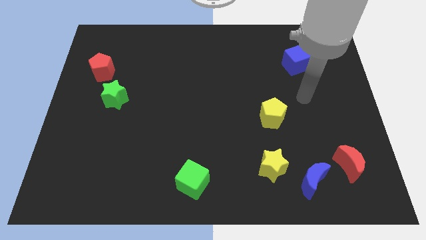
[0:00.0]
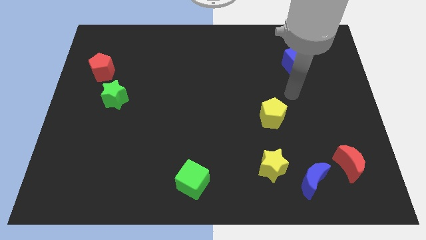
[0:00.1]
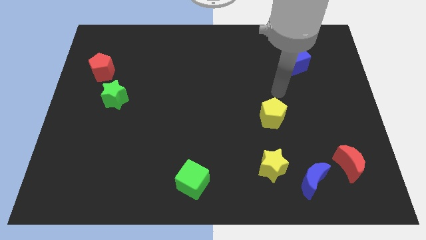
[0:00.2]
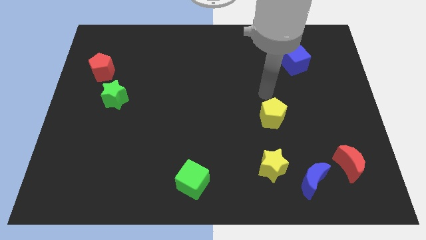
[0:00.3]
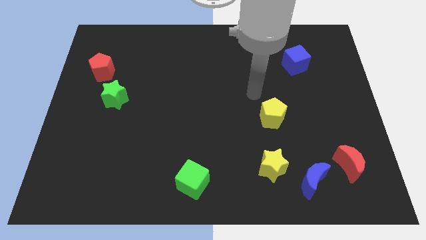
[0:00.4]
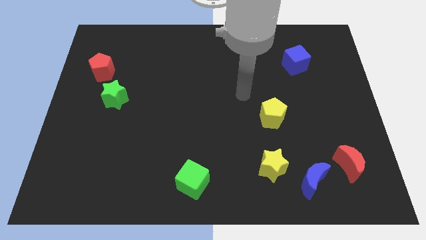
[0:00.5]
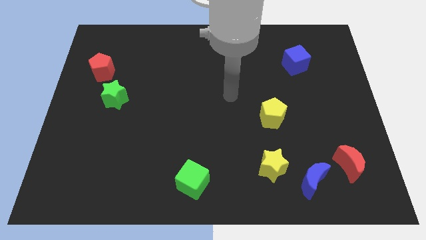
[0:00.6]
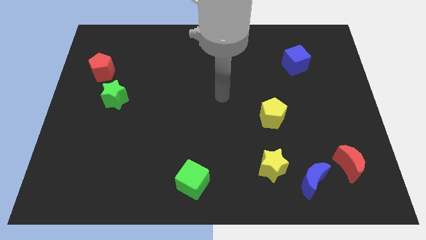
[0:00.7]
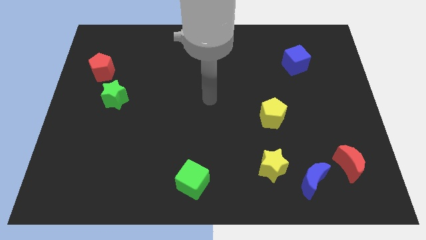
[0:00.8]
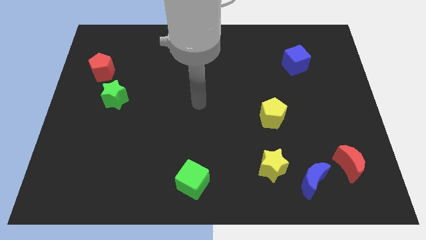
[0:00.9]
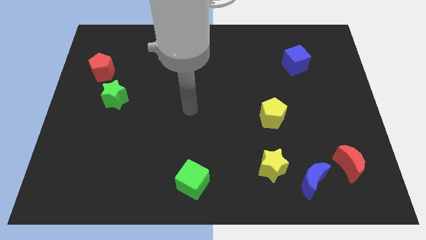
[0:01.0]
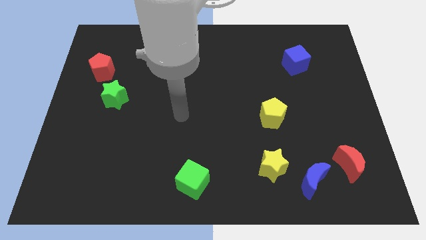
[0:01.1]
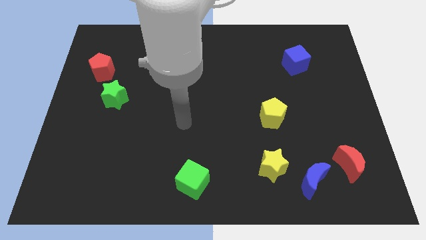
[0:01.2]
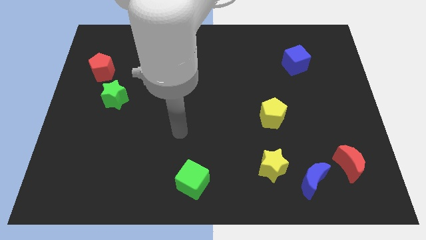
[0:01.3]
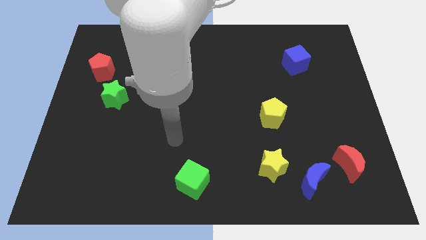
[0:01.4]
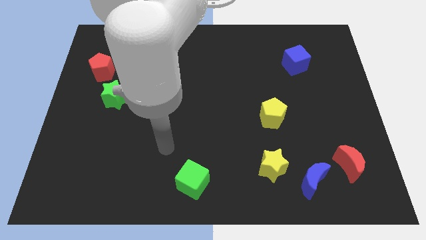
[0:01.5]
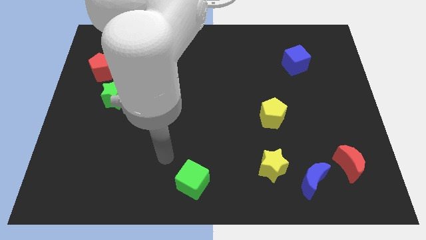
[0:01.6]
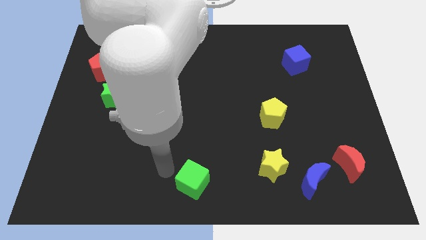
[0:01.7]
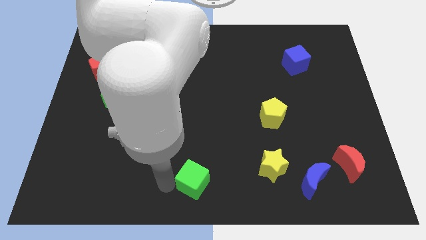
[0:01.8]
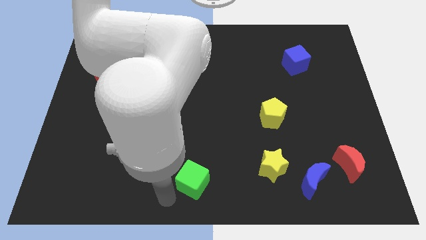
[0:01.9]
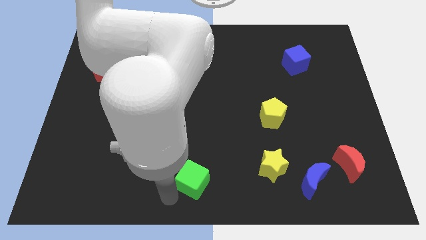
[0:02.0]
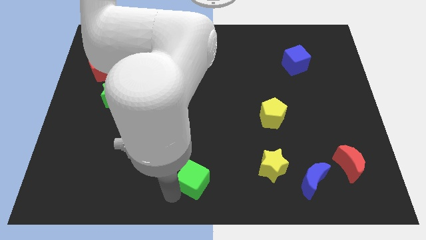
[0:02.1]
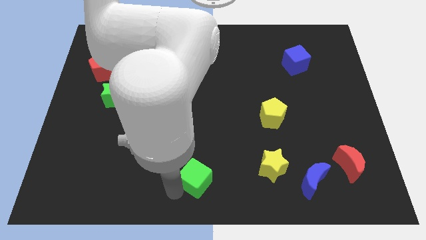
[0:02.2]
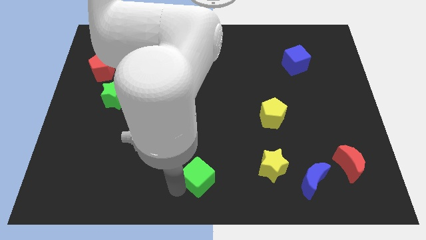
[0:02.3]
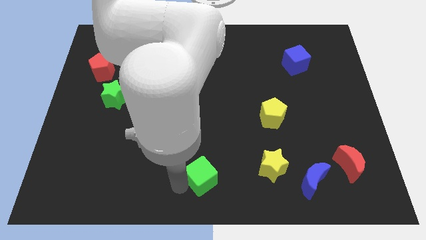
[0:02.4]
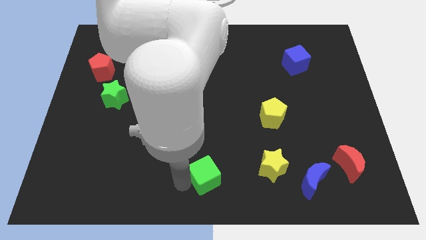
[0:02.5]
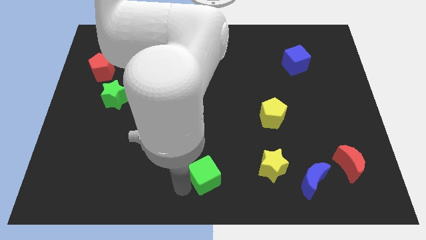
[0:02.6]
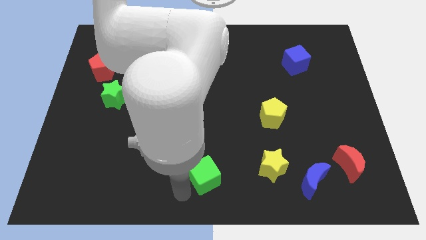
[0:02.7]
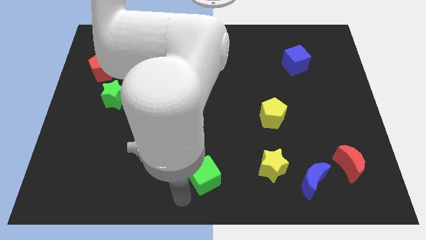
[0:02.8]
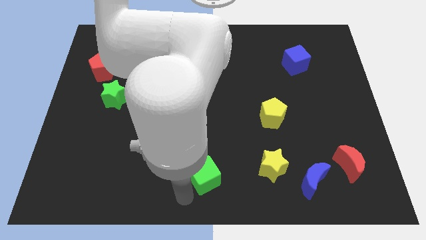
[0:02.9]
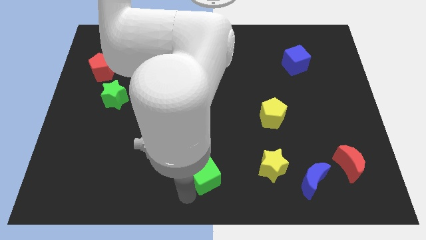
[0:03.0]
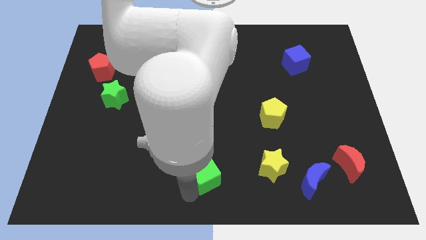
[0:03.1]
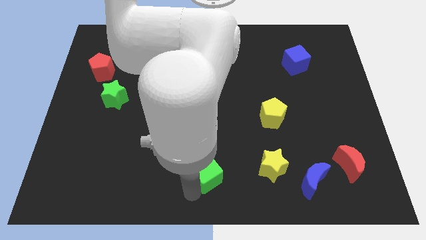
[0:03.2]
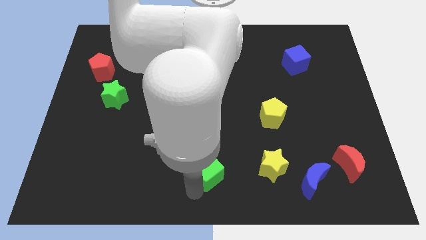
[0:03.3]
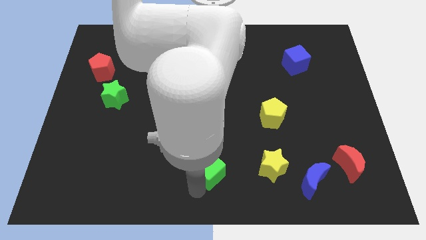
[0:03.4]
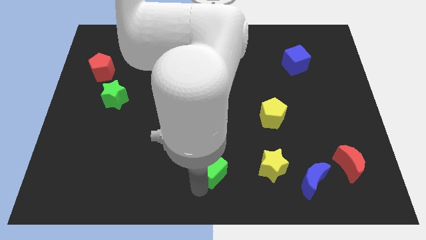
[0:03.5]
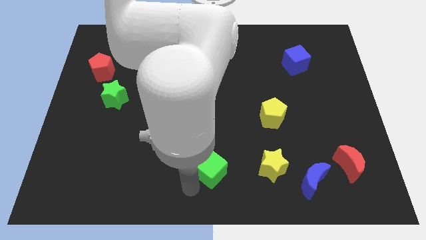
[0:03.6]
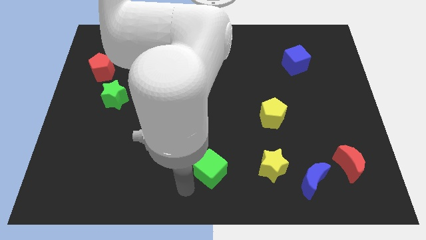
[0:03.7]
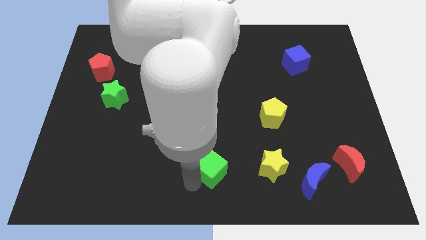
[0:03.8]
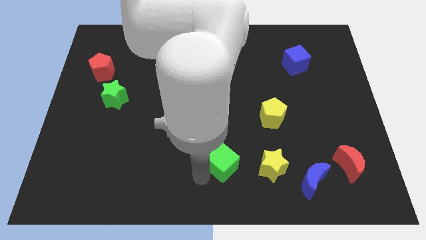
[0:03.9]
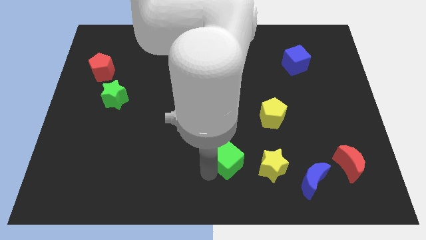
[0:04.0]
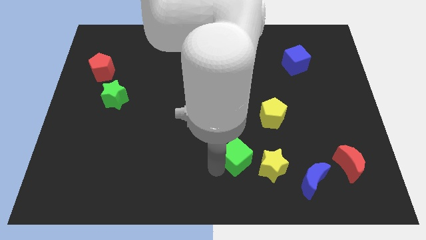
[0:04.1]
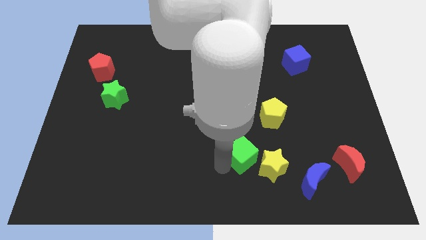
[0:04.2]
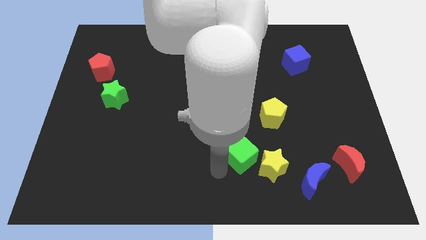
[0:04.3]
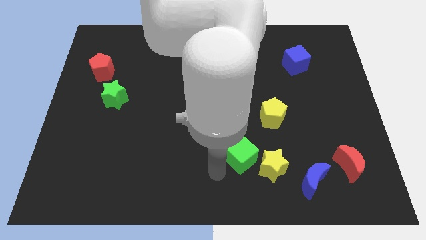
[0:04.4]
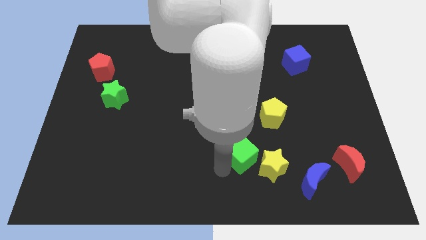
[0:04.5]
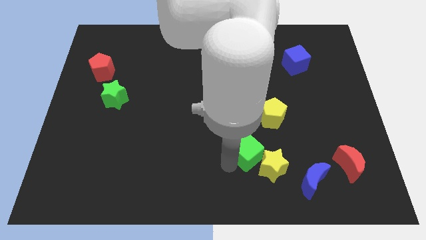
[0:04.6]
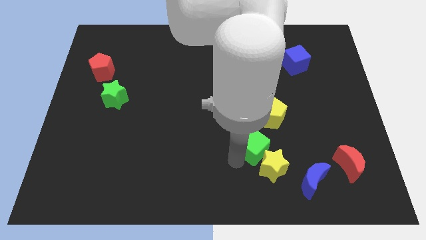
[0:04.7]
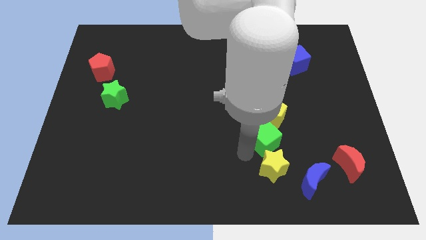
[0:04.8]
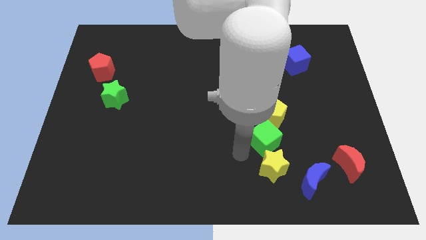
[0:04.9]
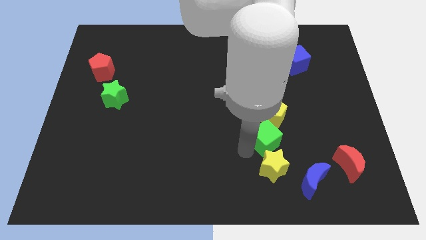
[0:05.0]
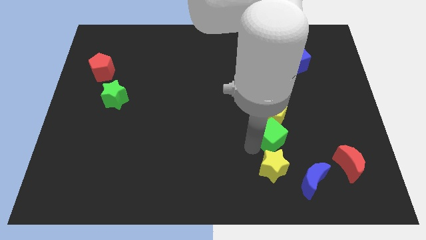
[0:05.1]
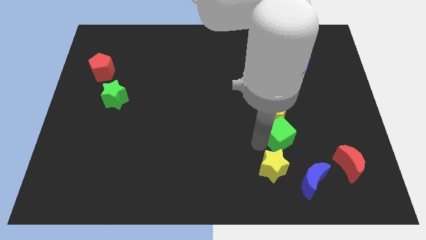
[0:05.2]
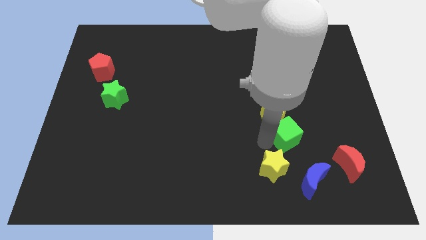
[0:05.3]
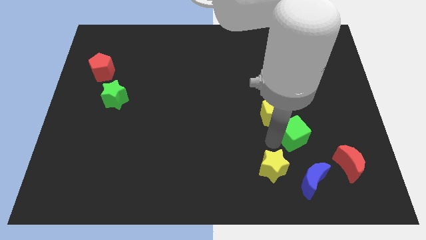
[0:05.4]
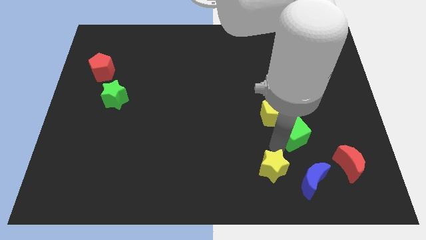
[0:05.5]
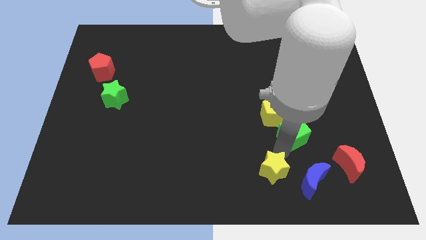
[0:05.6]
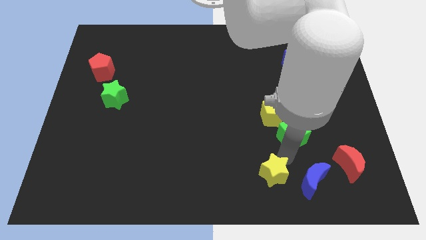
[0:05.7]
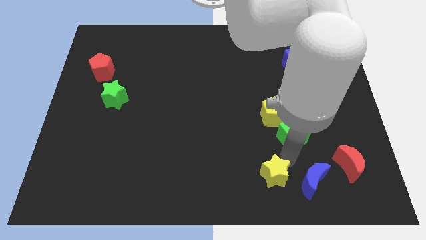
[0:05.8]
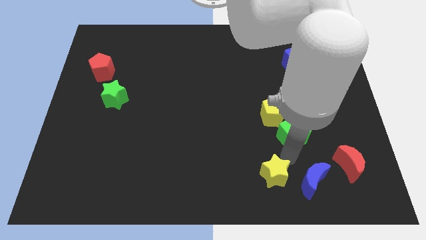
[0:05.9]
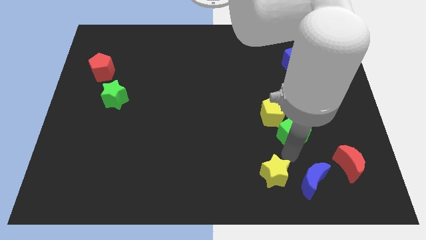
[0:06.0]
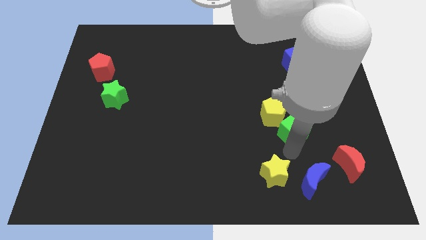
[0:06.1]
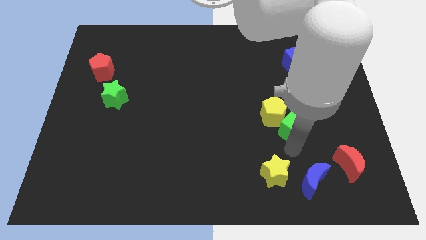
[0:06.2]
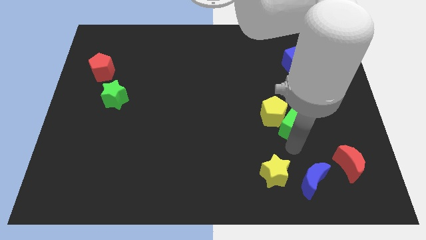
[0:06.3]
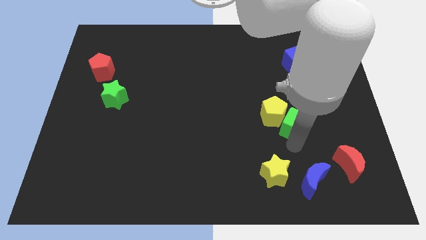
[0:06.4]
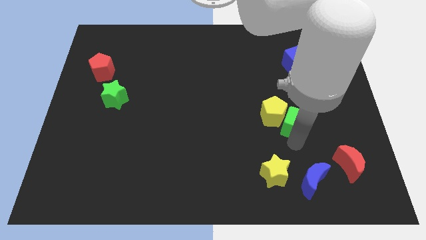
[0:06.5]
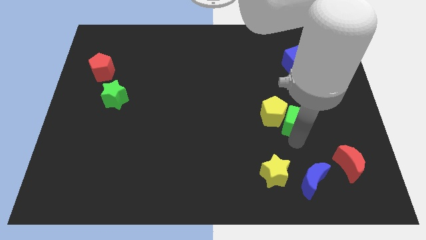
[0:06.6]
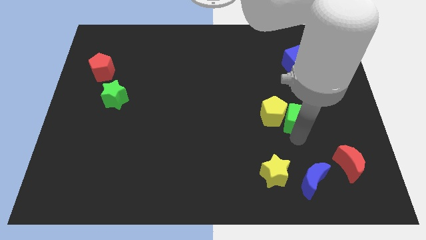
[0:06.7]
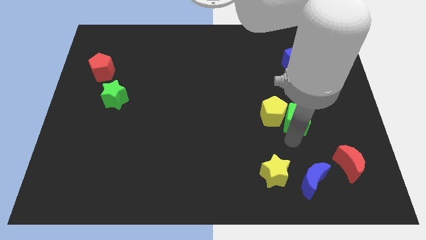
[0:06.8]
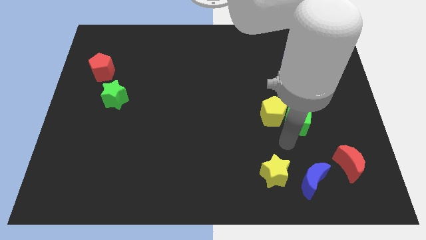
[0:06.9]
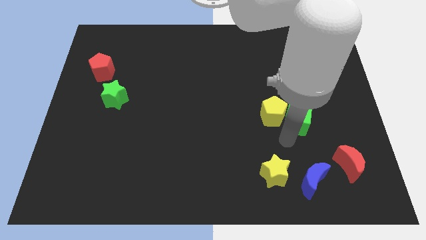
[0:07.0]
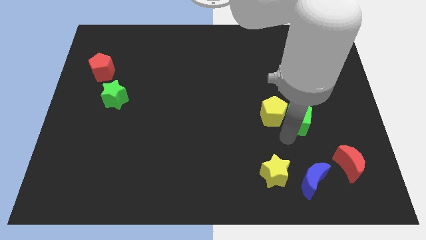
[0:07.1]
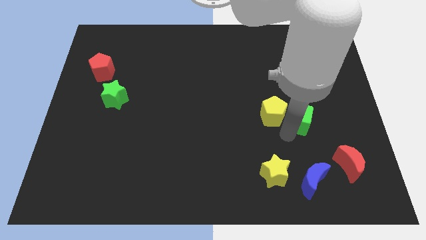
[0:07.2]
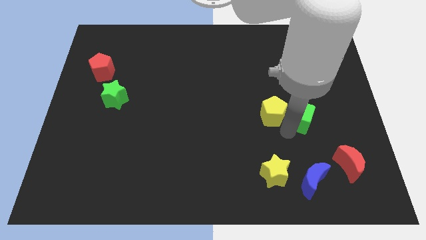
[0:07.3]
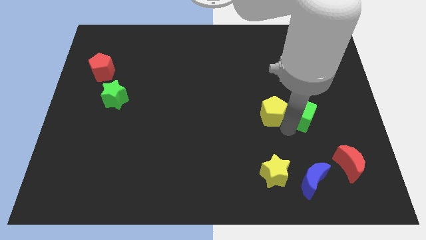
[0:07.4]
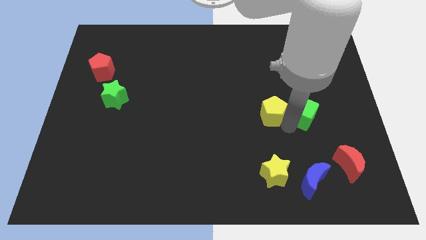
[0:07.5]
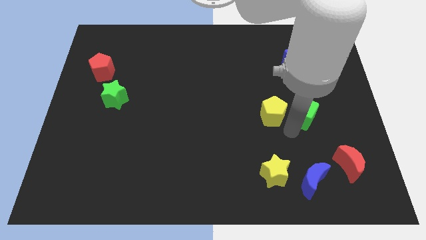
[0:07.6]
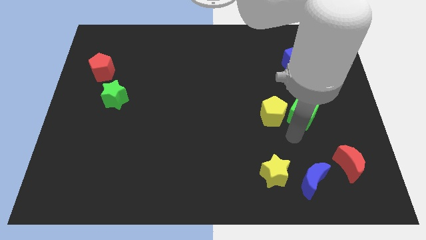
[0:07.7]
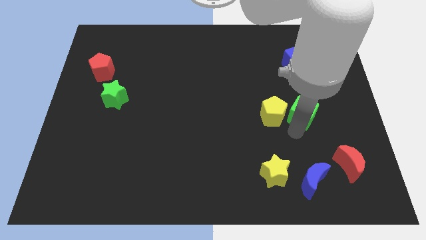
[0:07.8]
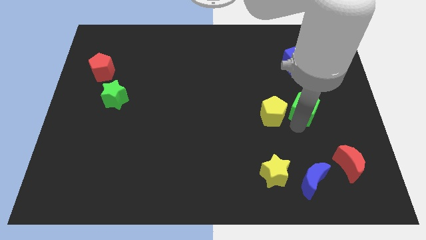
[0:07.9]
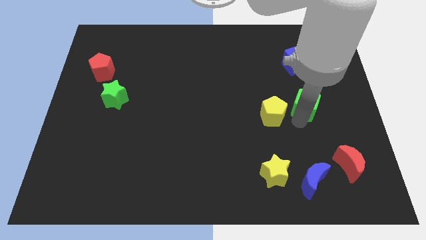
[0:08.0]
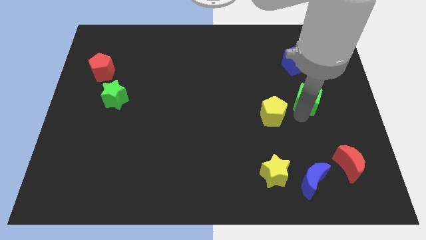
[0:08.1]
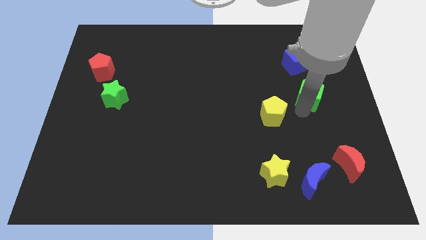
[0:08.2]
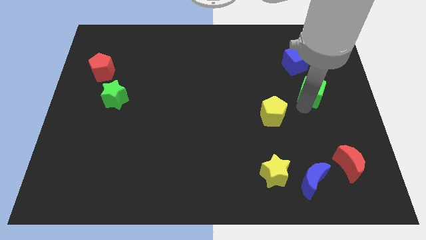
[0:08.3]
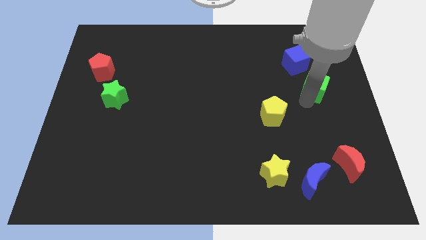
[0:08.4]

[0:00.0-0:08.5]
move the green cube diagonally down and to the right of the blue cube
